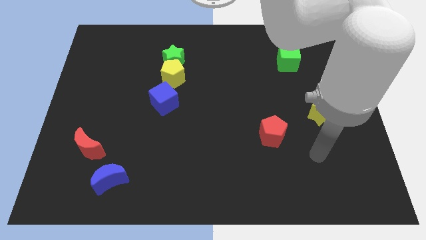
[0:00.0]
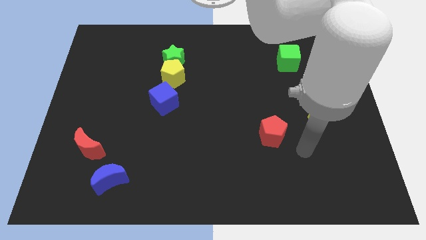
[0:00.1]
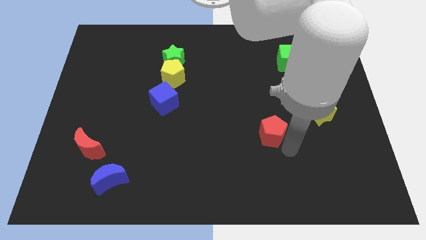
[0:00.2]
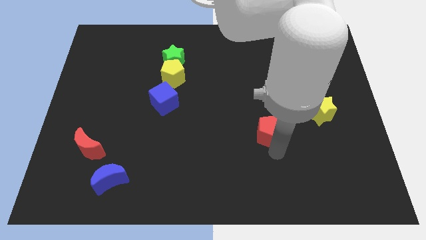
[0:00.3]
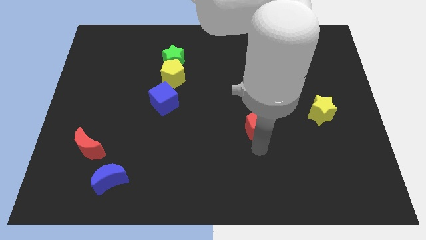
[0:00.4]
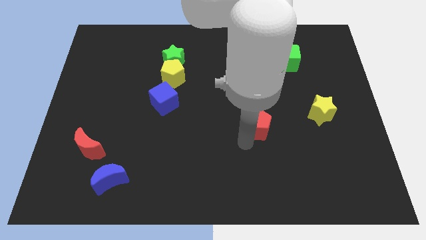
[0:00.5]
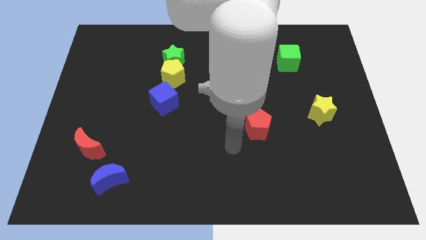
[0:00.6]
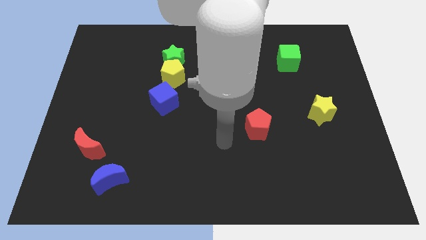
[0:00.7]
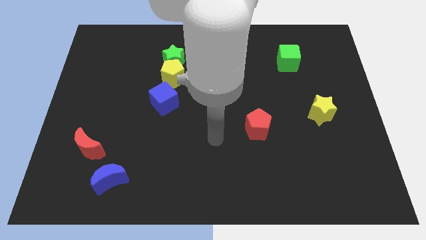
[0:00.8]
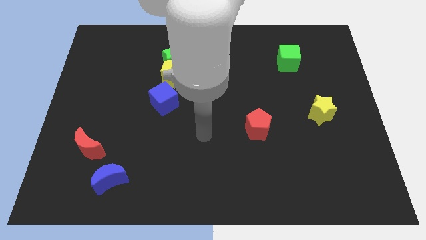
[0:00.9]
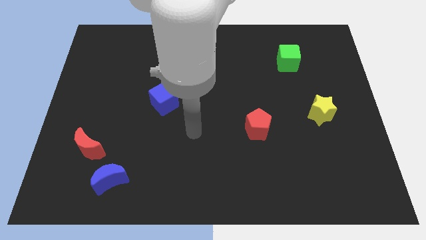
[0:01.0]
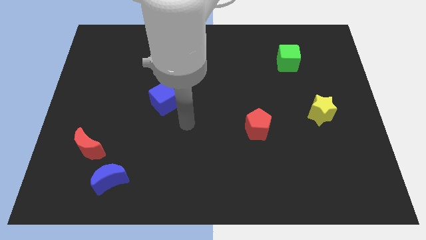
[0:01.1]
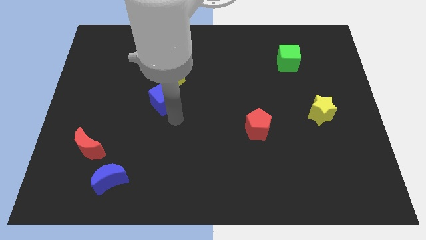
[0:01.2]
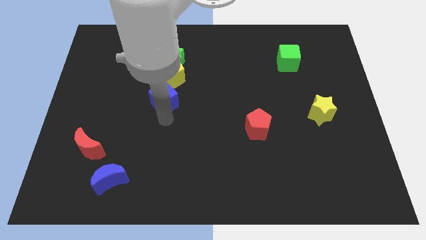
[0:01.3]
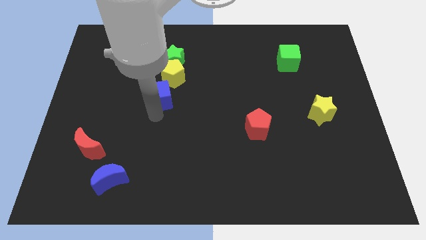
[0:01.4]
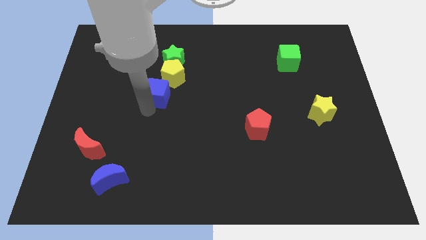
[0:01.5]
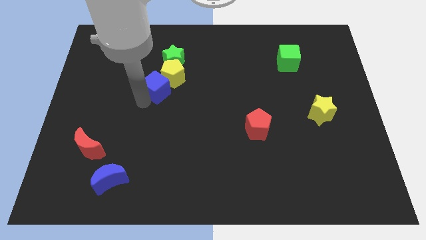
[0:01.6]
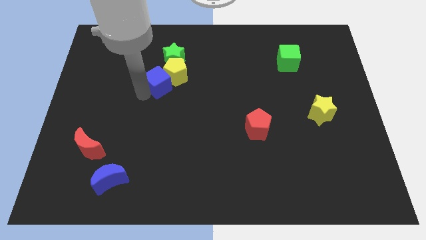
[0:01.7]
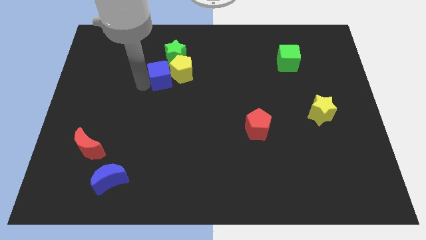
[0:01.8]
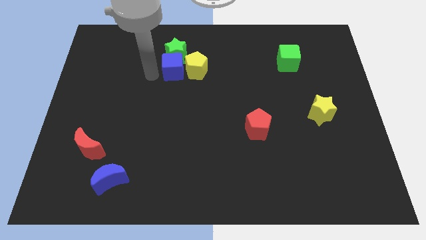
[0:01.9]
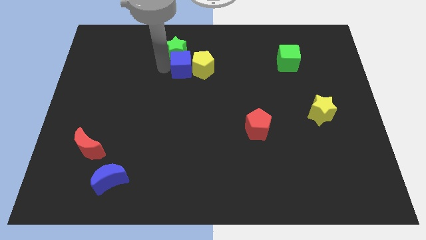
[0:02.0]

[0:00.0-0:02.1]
slide the yellow pentagon somewhat right

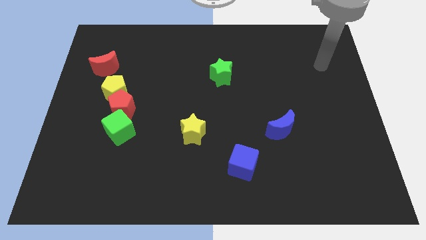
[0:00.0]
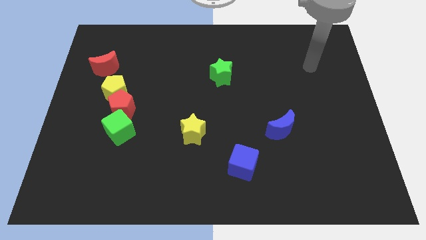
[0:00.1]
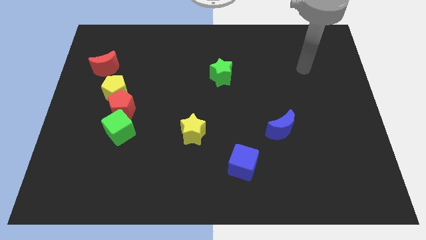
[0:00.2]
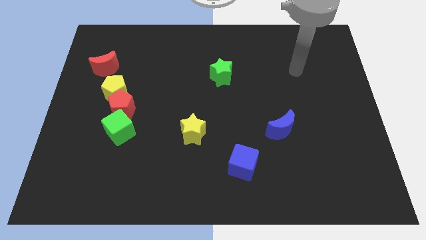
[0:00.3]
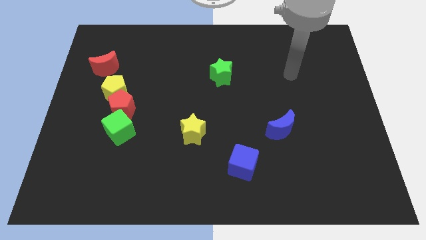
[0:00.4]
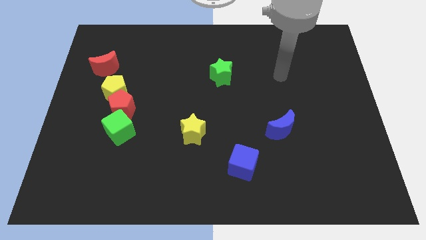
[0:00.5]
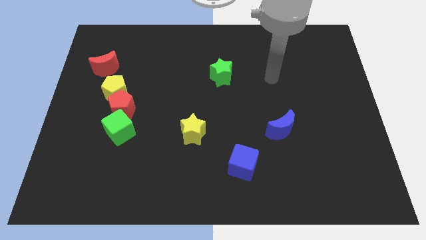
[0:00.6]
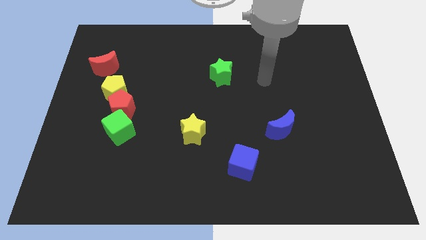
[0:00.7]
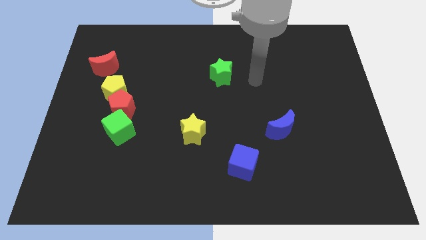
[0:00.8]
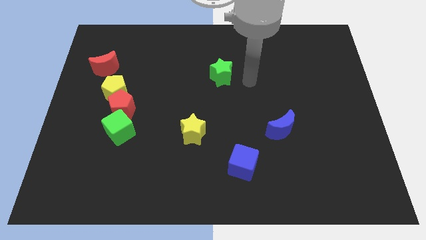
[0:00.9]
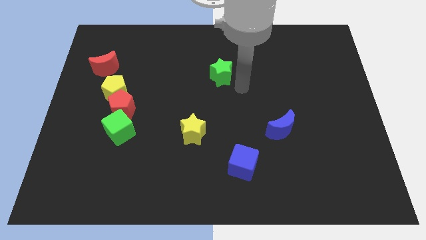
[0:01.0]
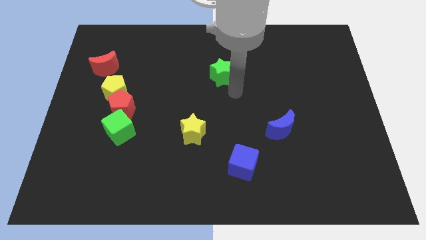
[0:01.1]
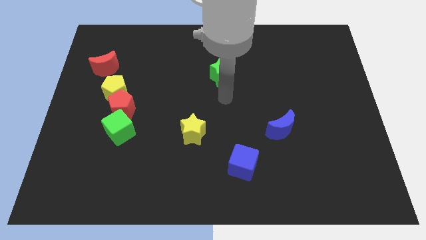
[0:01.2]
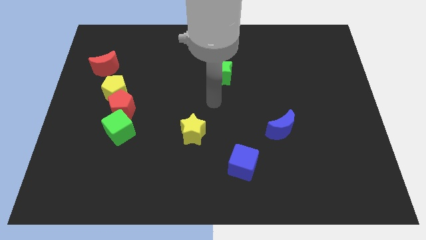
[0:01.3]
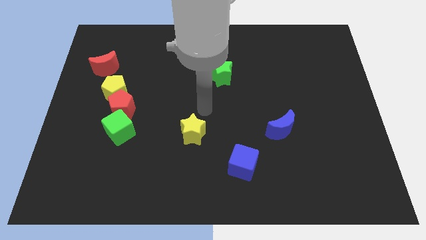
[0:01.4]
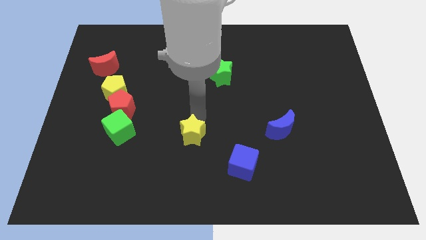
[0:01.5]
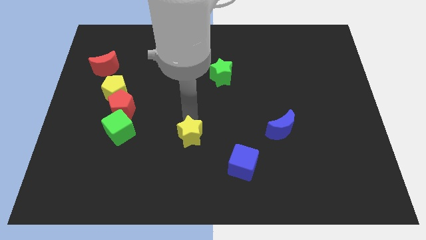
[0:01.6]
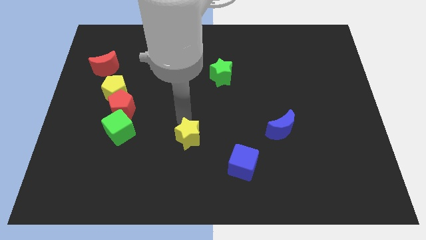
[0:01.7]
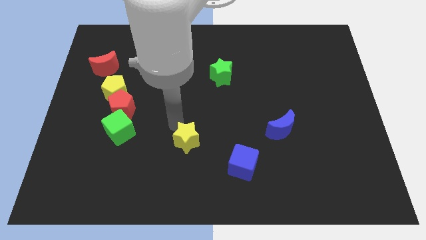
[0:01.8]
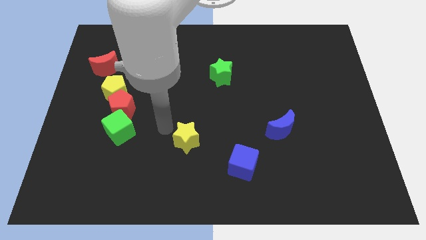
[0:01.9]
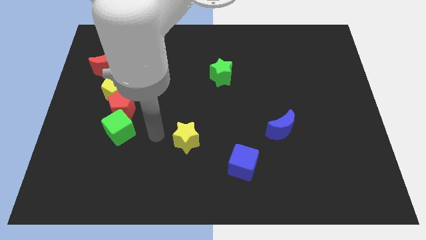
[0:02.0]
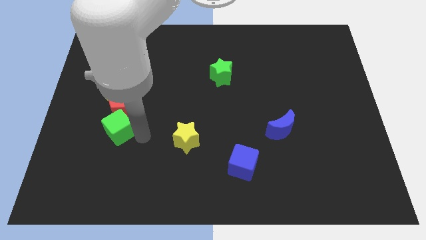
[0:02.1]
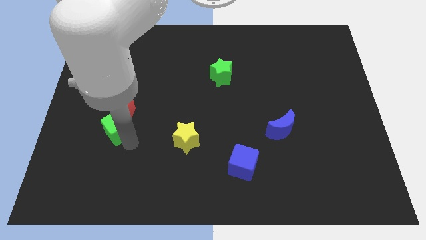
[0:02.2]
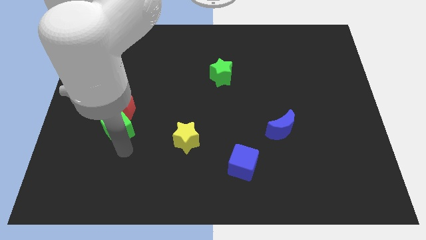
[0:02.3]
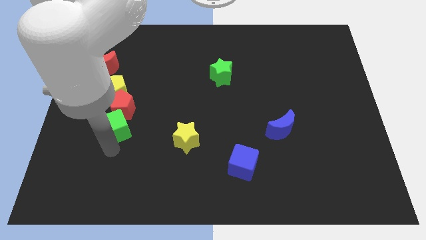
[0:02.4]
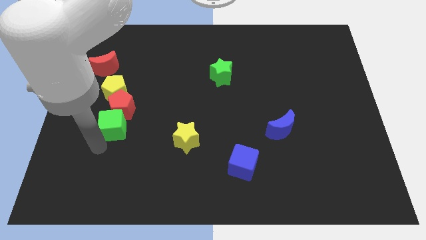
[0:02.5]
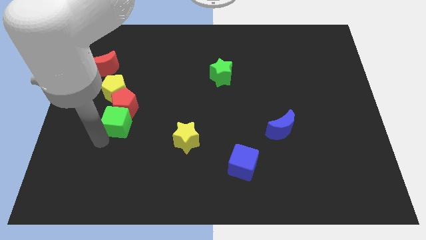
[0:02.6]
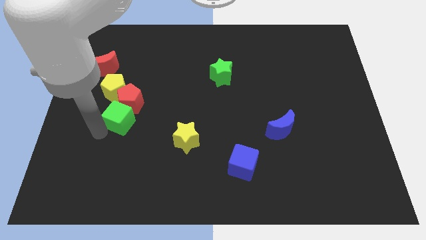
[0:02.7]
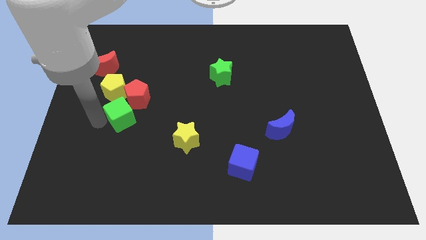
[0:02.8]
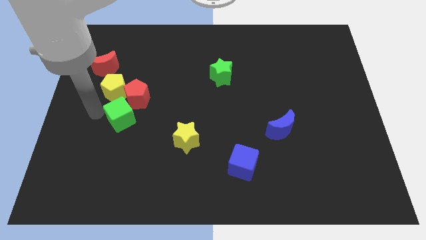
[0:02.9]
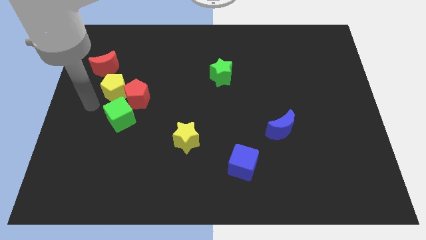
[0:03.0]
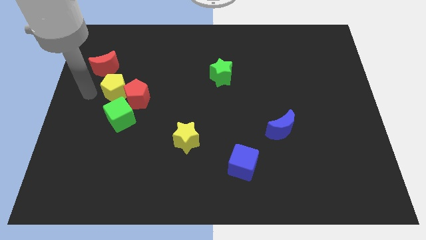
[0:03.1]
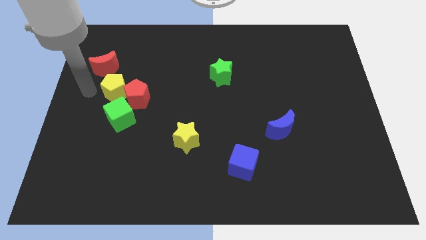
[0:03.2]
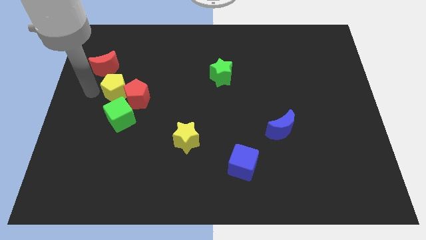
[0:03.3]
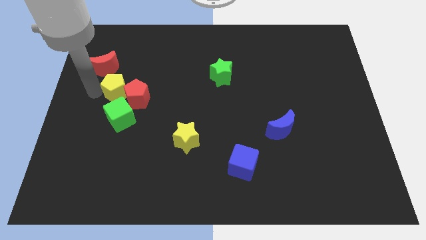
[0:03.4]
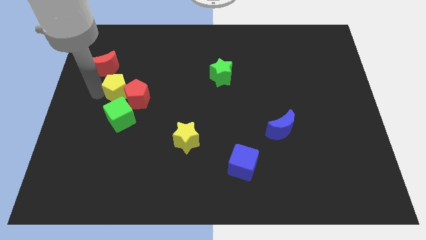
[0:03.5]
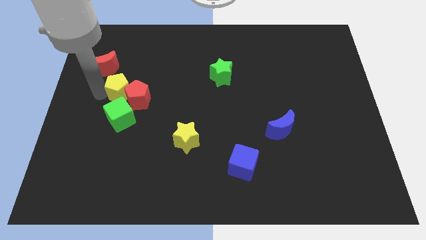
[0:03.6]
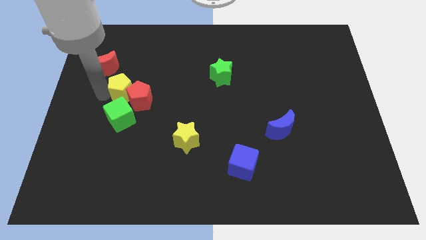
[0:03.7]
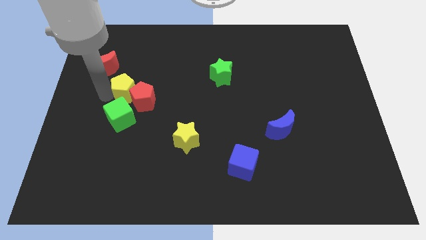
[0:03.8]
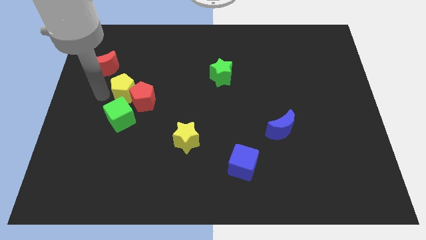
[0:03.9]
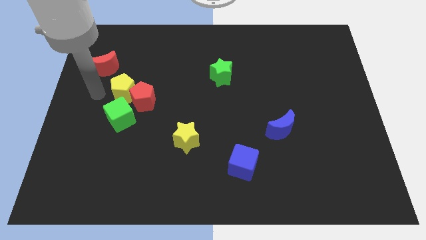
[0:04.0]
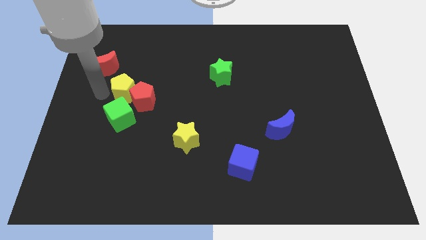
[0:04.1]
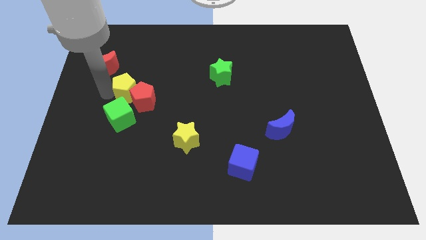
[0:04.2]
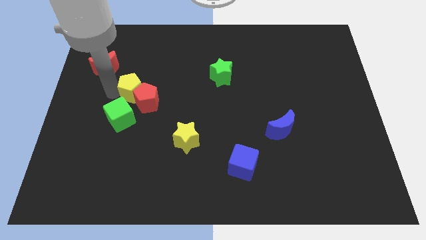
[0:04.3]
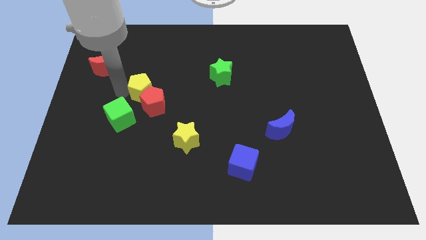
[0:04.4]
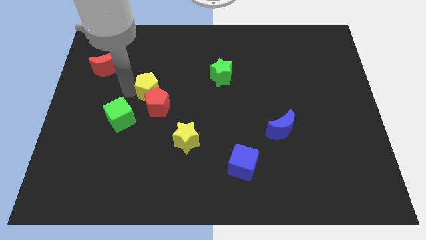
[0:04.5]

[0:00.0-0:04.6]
push the yellow pentagon right a little bit

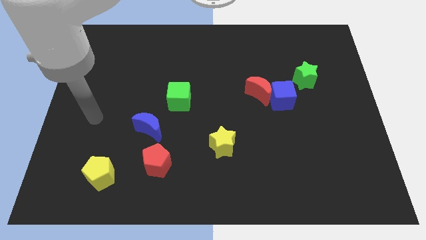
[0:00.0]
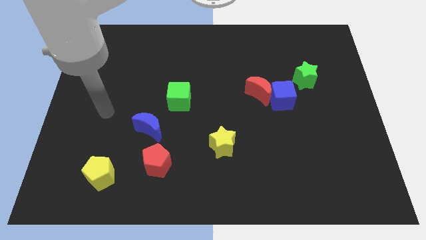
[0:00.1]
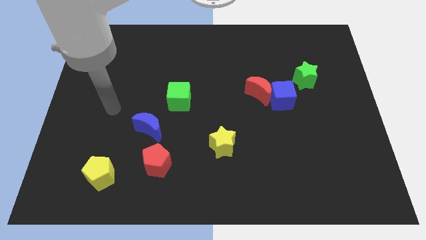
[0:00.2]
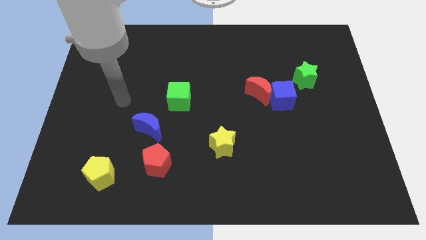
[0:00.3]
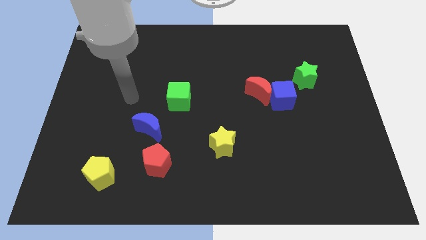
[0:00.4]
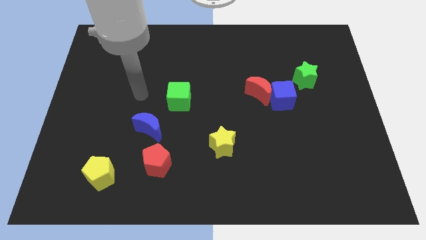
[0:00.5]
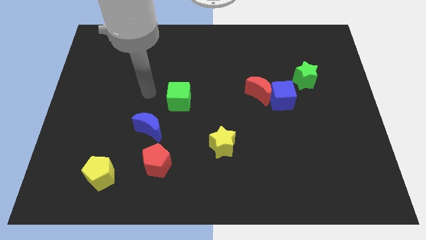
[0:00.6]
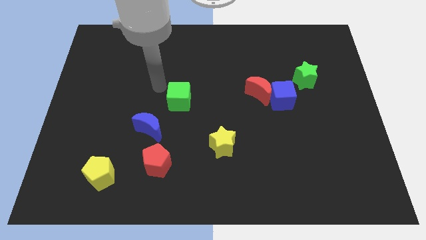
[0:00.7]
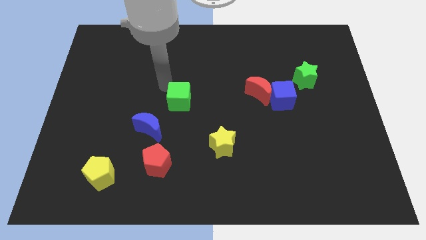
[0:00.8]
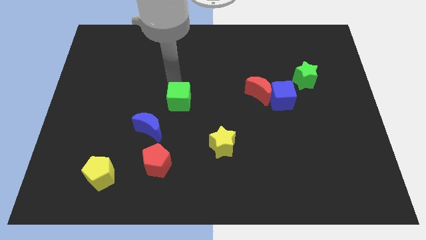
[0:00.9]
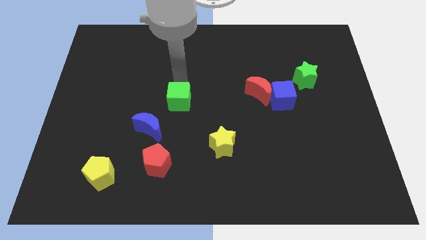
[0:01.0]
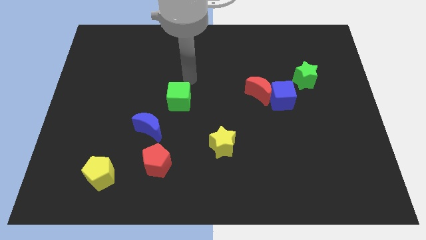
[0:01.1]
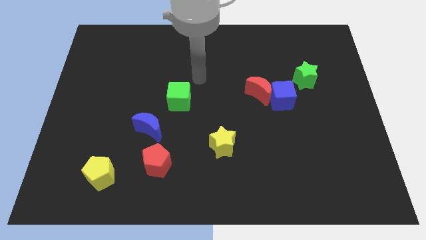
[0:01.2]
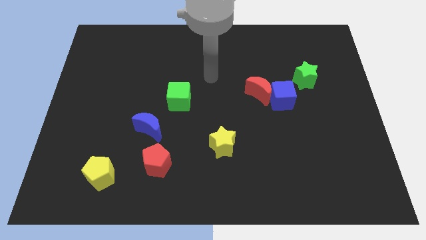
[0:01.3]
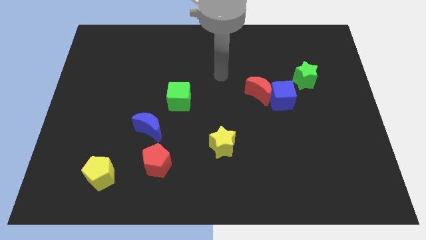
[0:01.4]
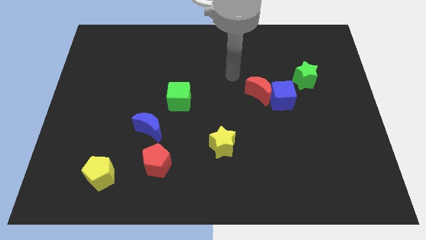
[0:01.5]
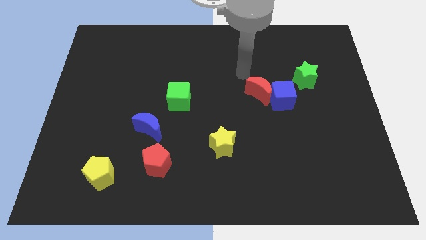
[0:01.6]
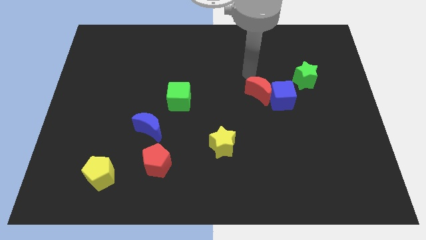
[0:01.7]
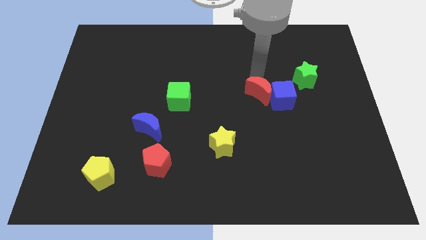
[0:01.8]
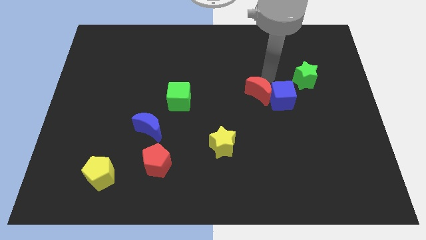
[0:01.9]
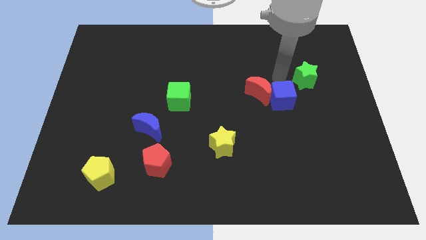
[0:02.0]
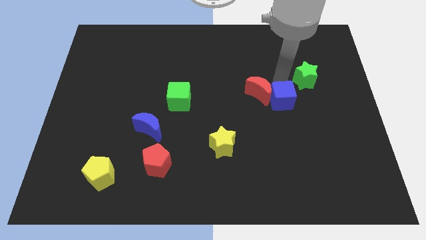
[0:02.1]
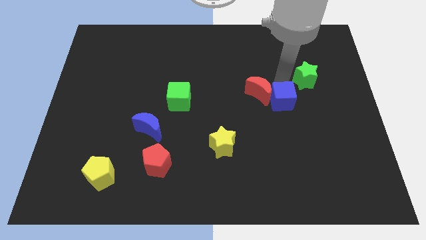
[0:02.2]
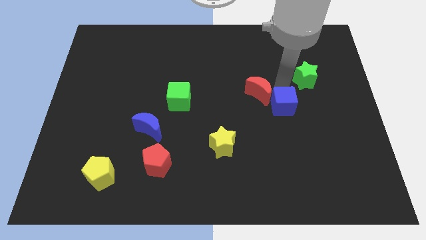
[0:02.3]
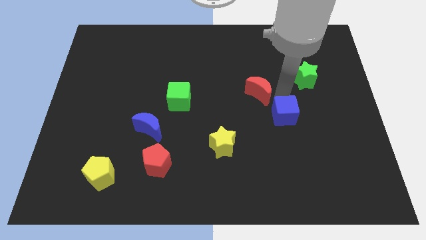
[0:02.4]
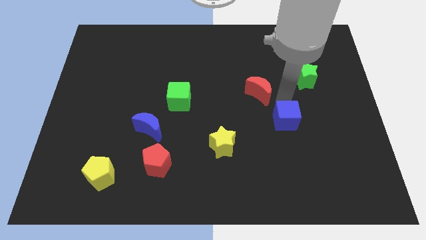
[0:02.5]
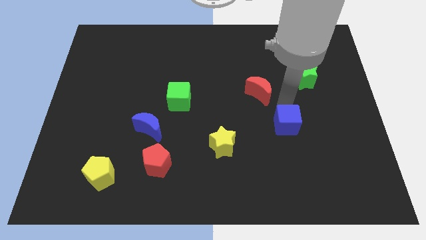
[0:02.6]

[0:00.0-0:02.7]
slightly move the blue cube downwards
